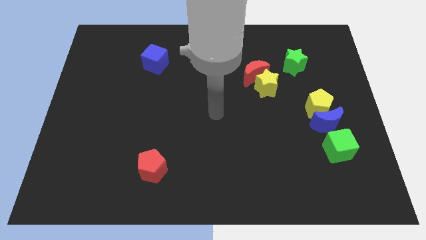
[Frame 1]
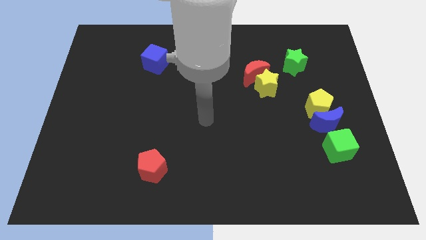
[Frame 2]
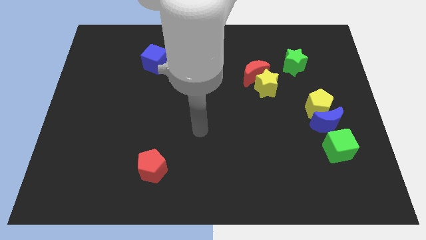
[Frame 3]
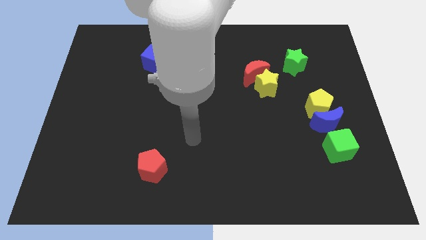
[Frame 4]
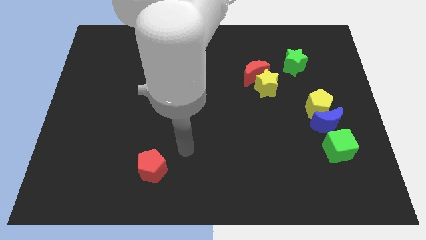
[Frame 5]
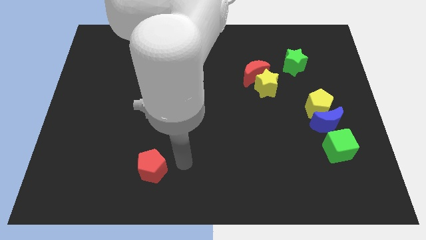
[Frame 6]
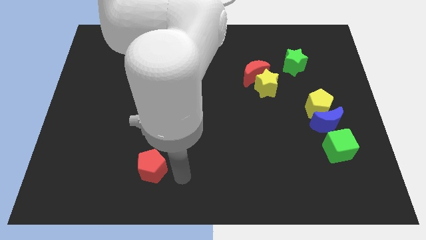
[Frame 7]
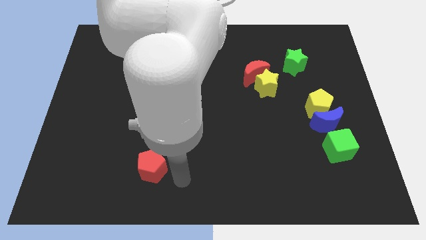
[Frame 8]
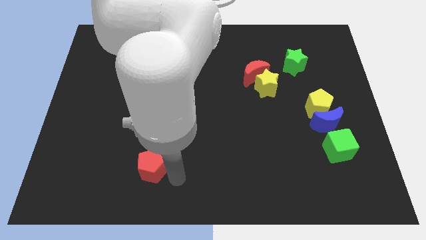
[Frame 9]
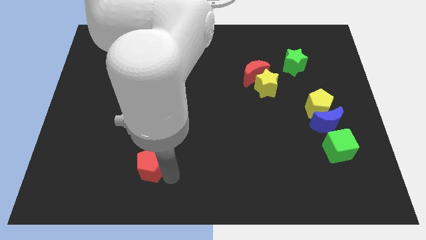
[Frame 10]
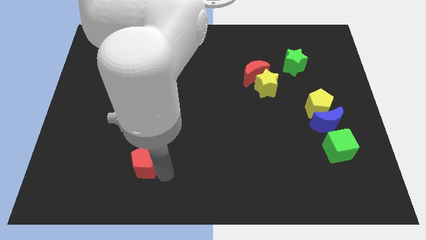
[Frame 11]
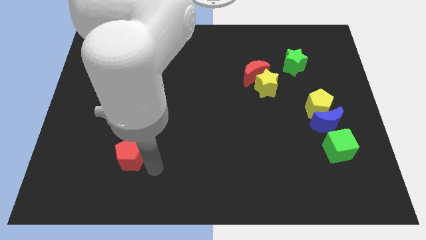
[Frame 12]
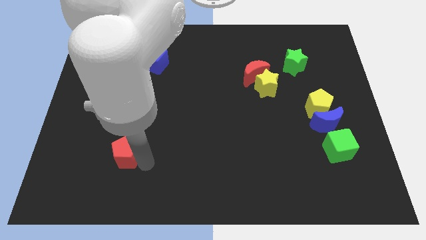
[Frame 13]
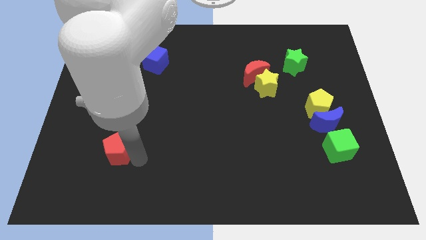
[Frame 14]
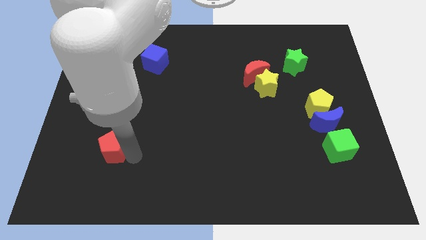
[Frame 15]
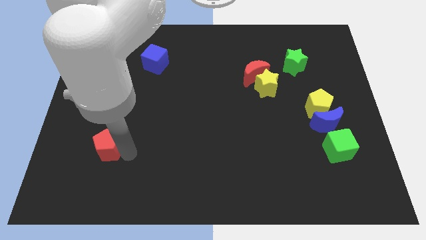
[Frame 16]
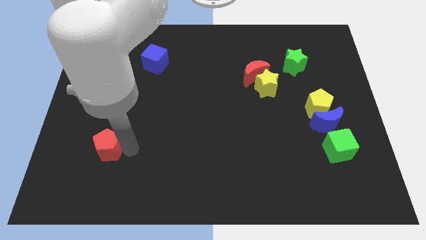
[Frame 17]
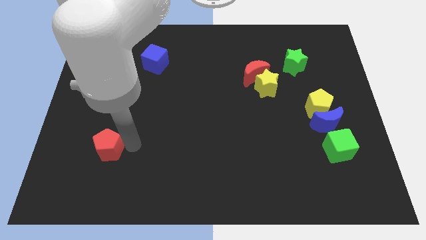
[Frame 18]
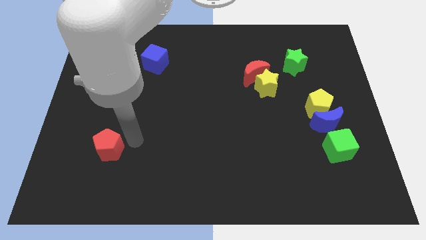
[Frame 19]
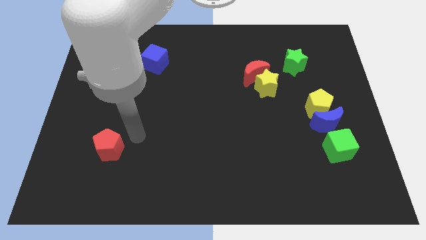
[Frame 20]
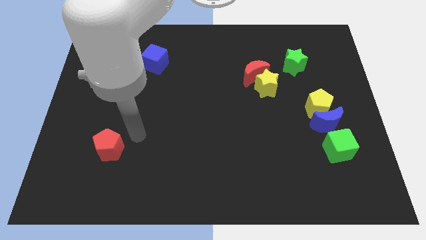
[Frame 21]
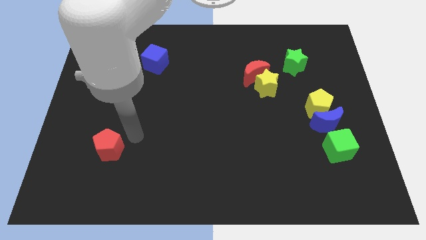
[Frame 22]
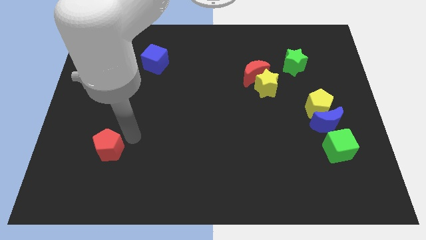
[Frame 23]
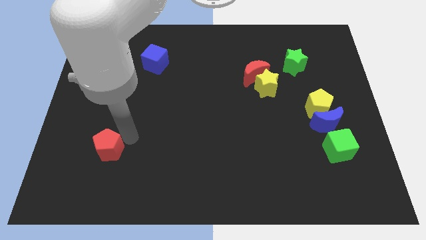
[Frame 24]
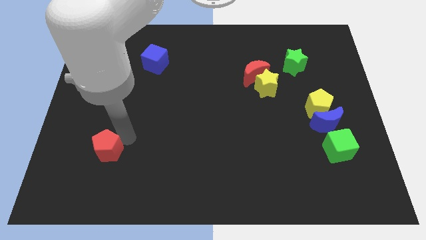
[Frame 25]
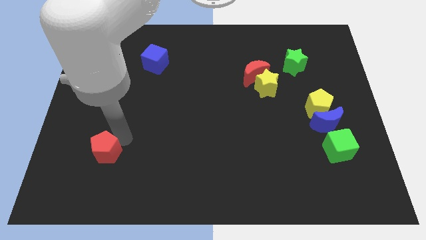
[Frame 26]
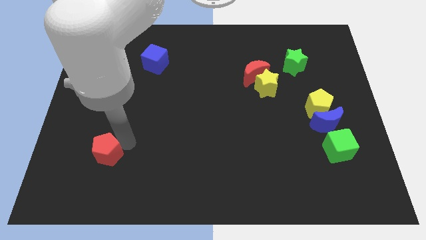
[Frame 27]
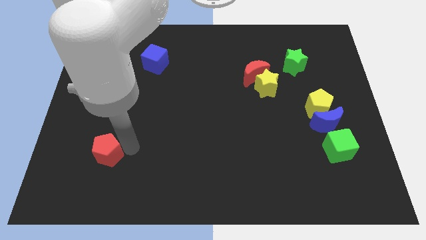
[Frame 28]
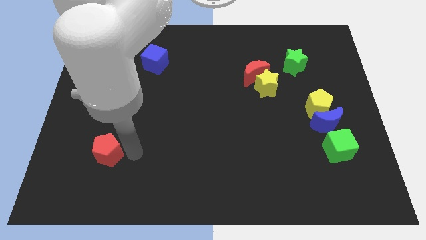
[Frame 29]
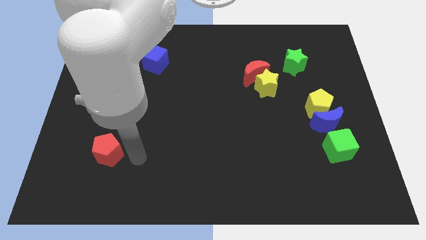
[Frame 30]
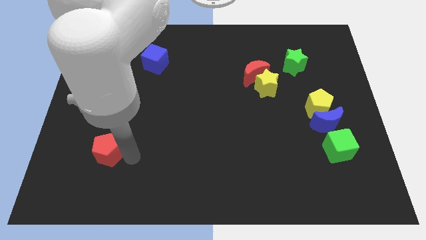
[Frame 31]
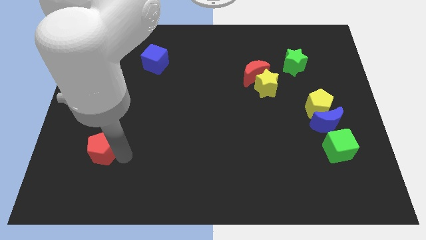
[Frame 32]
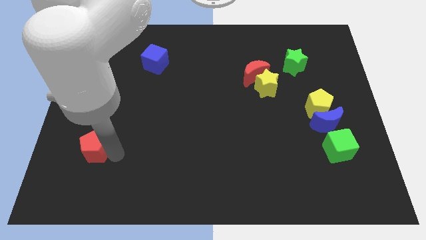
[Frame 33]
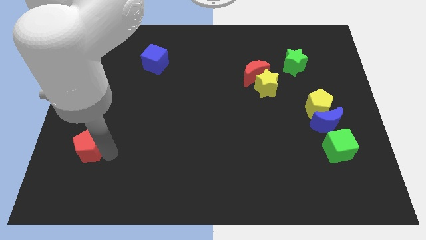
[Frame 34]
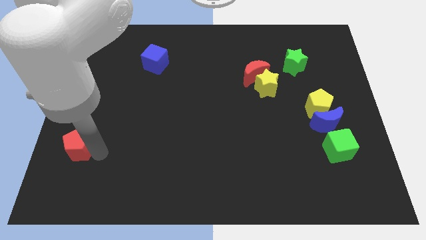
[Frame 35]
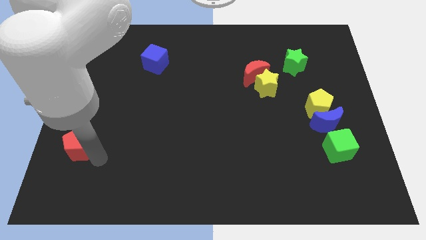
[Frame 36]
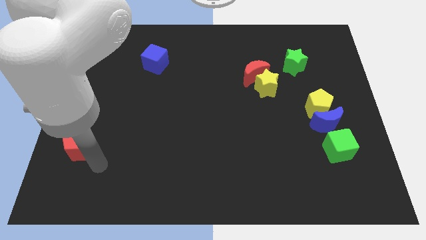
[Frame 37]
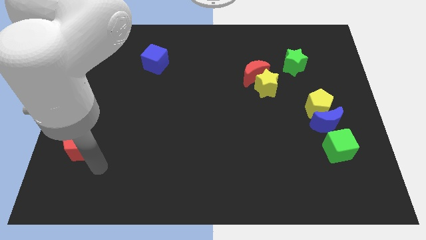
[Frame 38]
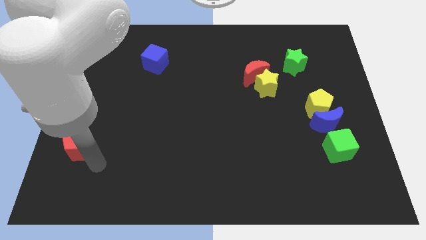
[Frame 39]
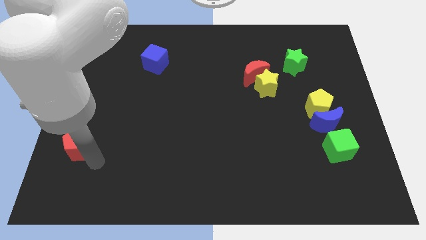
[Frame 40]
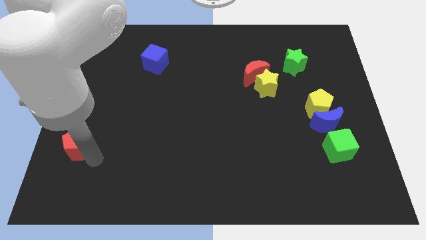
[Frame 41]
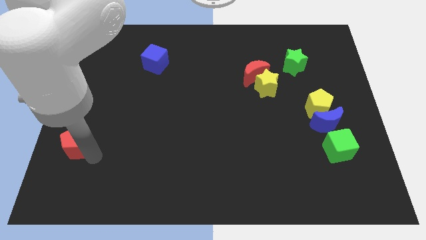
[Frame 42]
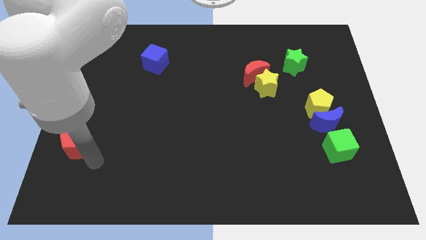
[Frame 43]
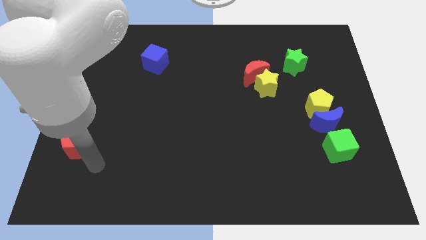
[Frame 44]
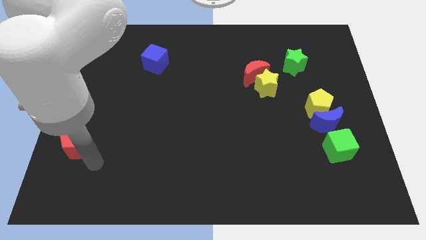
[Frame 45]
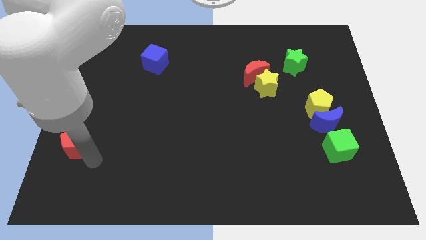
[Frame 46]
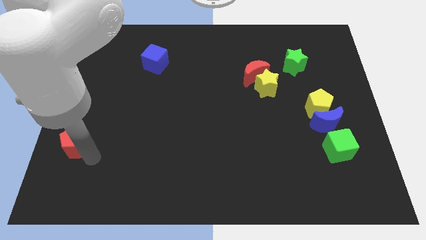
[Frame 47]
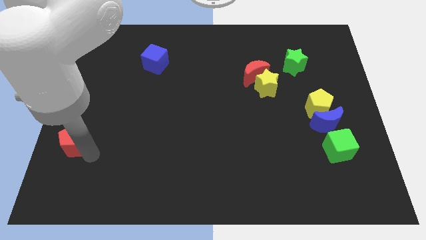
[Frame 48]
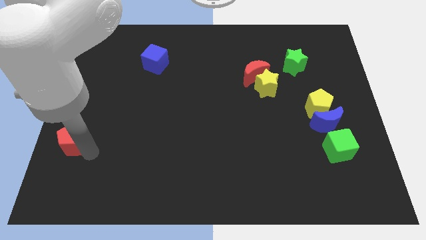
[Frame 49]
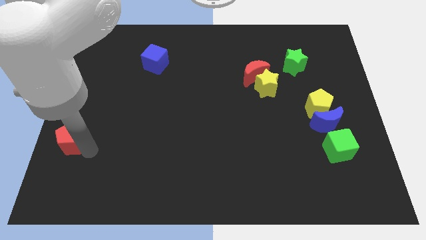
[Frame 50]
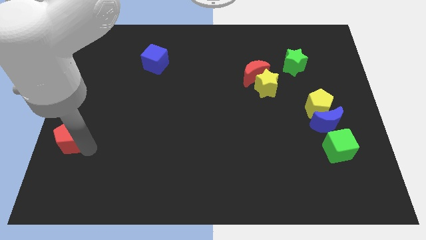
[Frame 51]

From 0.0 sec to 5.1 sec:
put the red pentagon to the center left

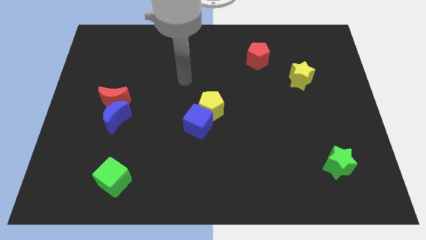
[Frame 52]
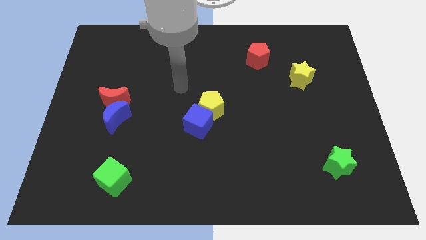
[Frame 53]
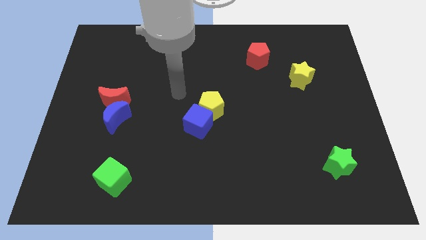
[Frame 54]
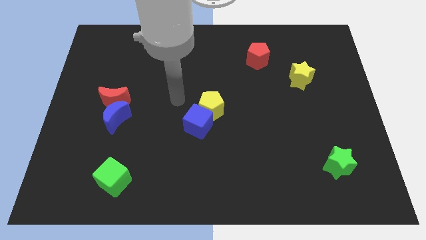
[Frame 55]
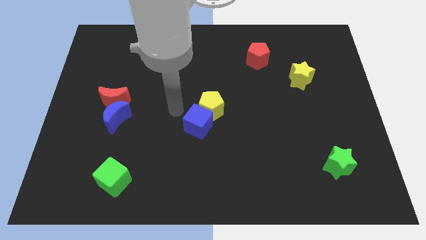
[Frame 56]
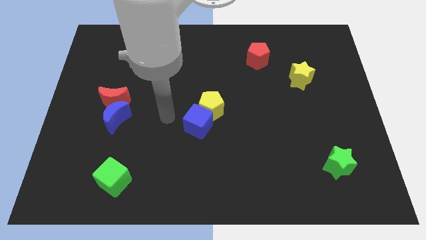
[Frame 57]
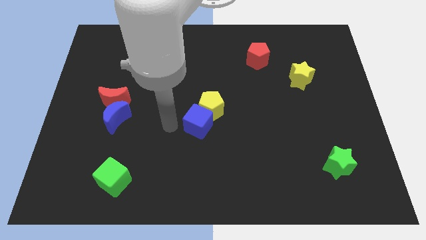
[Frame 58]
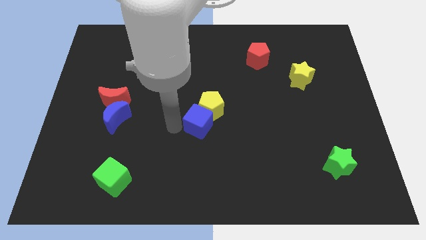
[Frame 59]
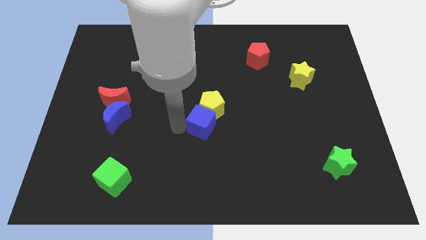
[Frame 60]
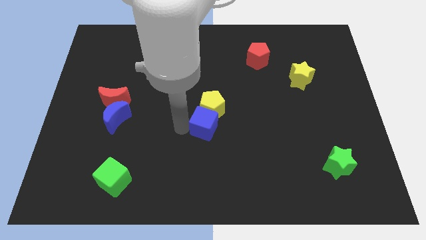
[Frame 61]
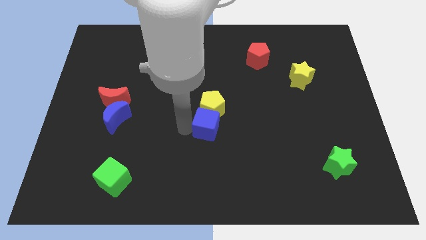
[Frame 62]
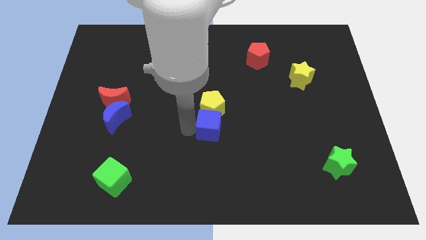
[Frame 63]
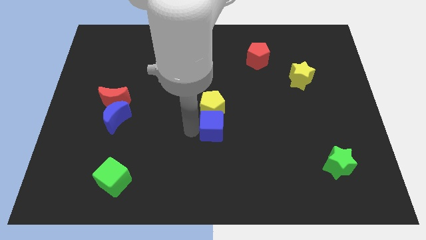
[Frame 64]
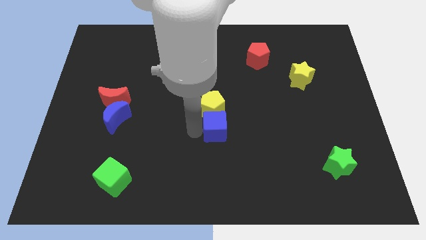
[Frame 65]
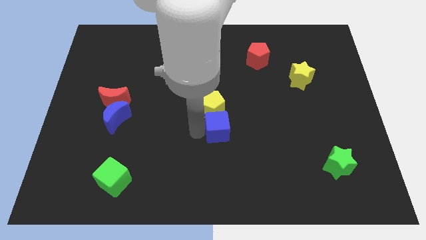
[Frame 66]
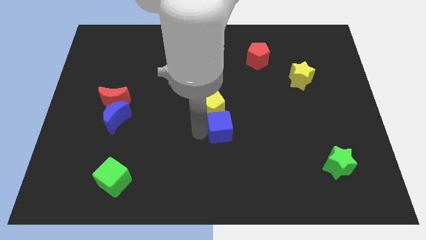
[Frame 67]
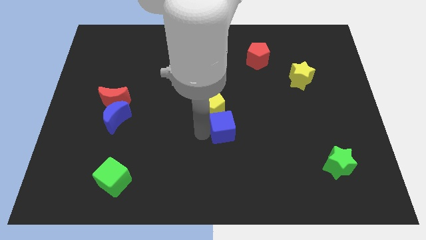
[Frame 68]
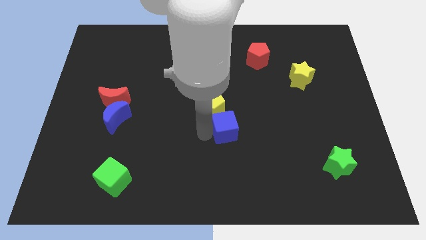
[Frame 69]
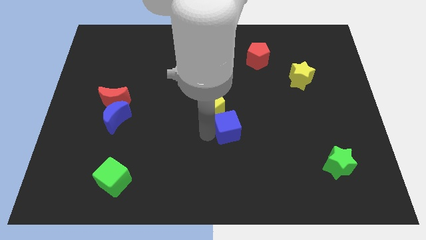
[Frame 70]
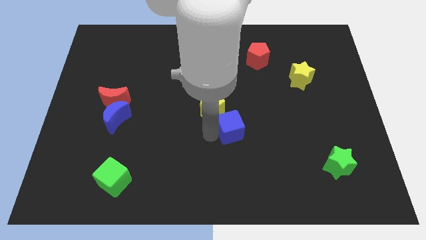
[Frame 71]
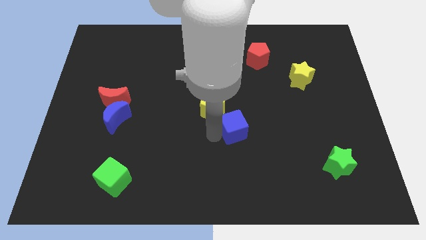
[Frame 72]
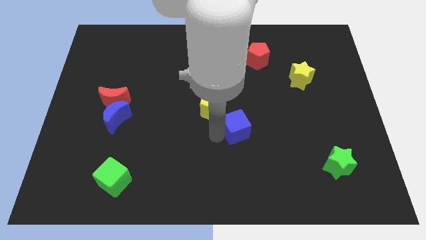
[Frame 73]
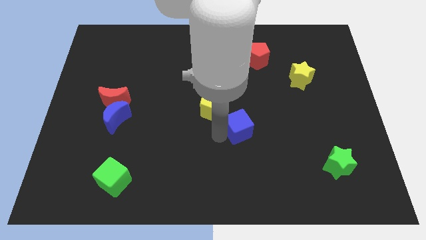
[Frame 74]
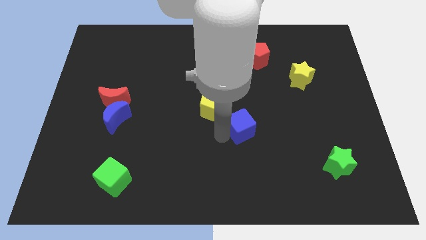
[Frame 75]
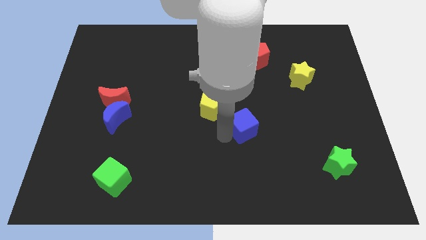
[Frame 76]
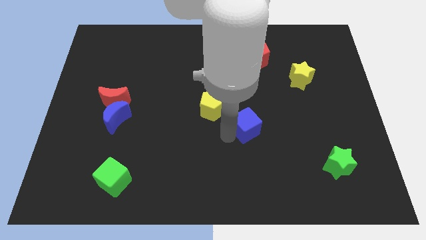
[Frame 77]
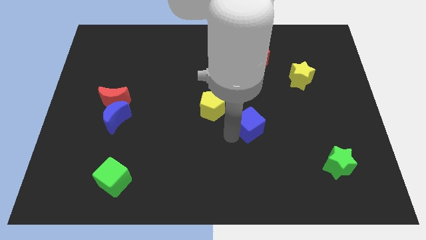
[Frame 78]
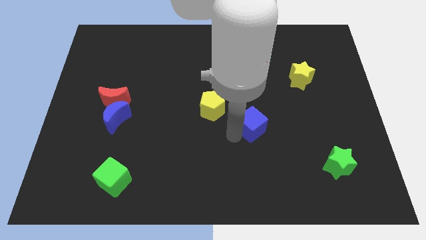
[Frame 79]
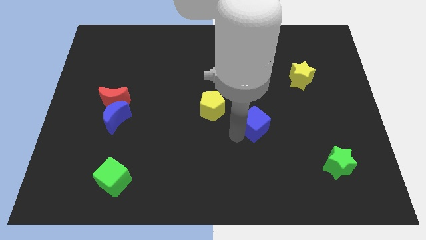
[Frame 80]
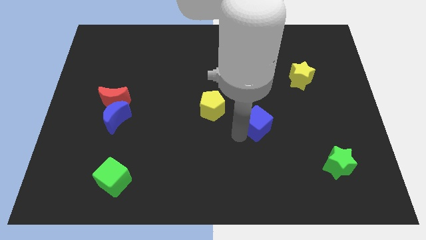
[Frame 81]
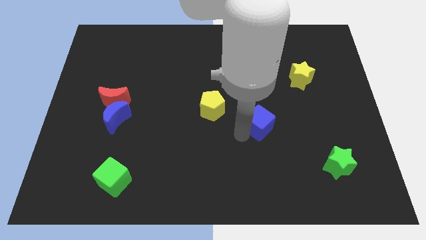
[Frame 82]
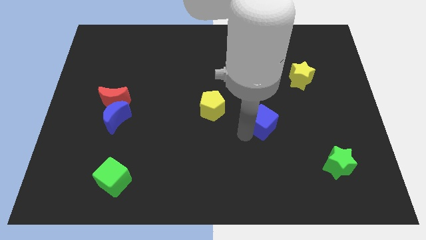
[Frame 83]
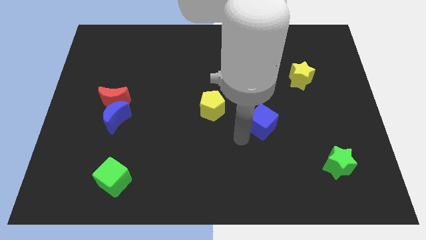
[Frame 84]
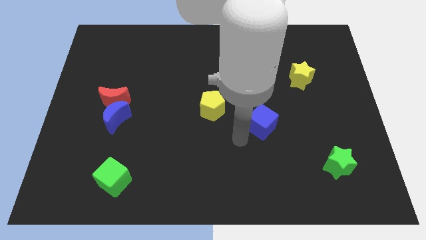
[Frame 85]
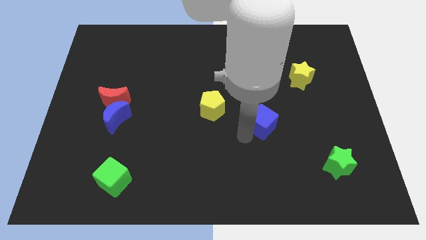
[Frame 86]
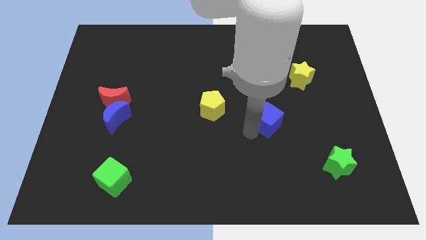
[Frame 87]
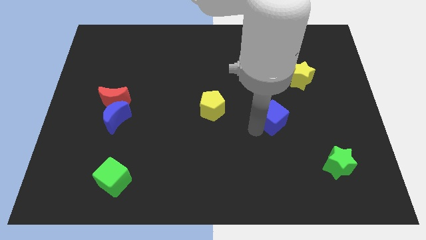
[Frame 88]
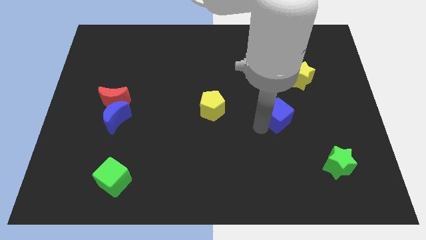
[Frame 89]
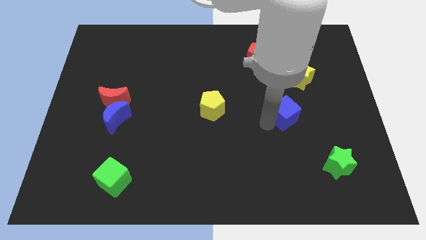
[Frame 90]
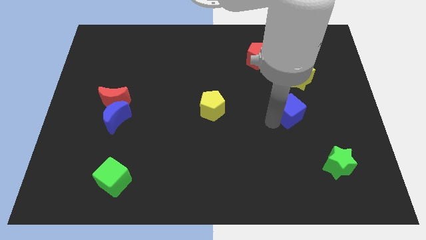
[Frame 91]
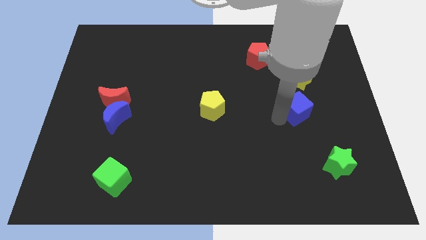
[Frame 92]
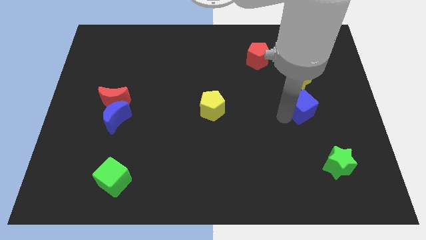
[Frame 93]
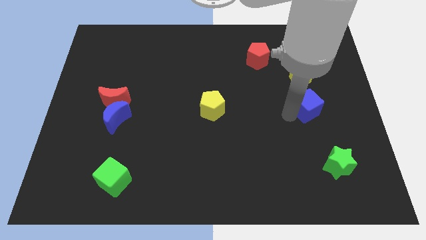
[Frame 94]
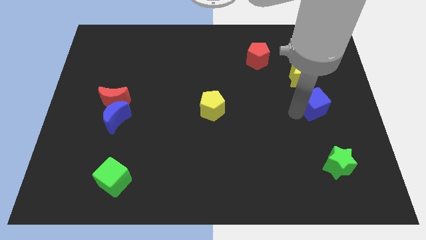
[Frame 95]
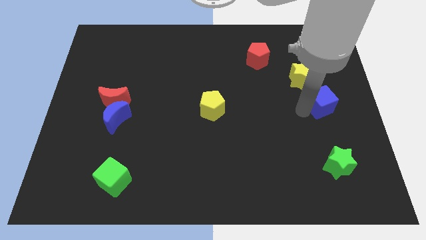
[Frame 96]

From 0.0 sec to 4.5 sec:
push the blue cube to the right side
